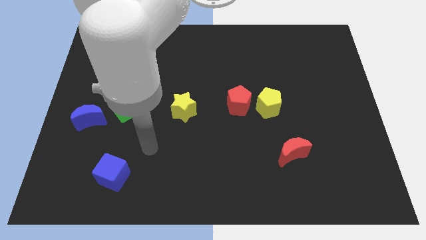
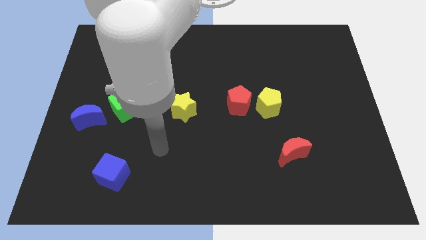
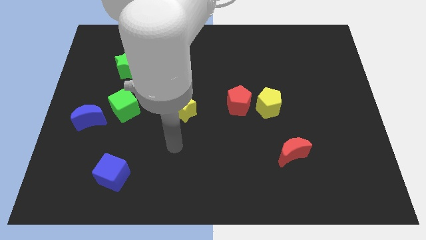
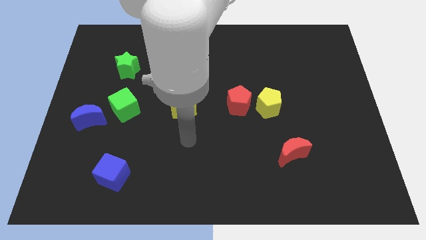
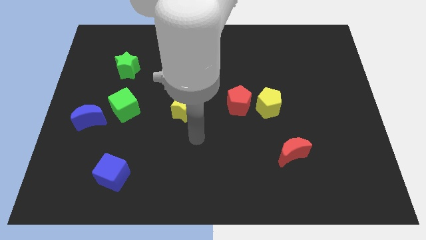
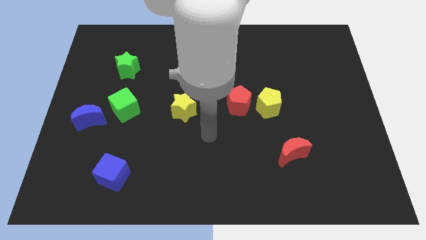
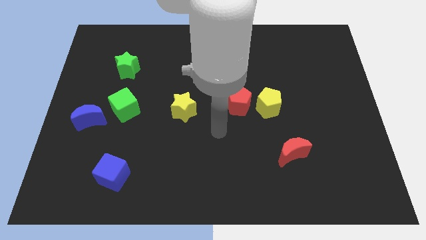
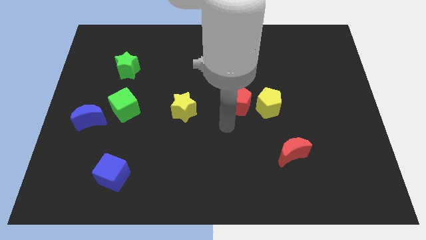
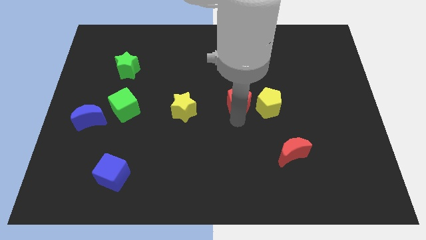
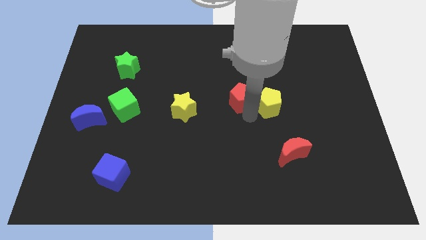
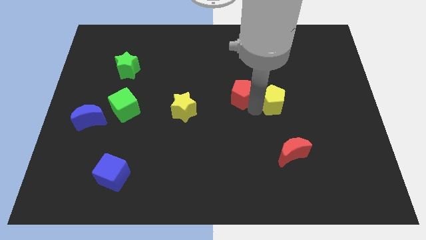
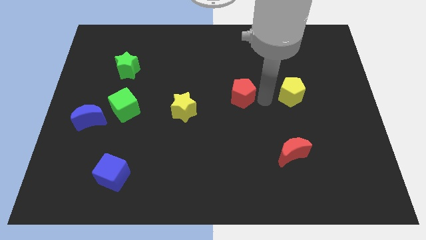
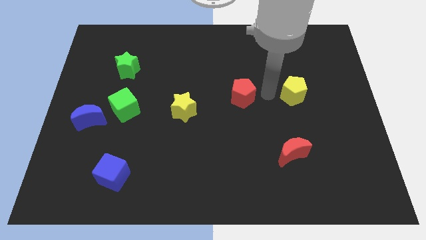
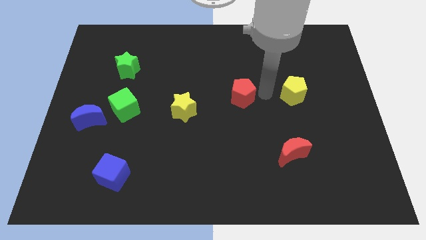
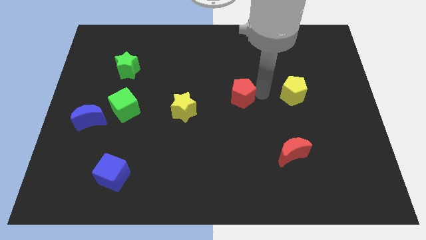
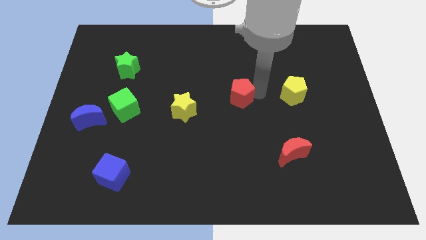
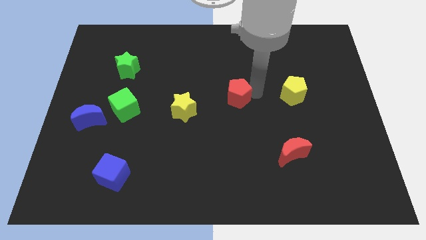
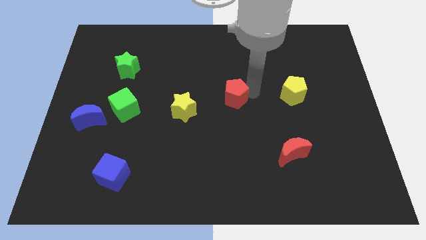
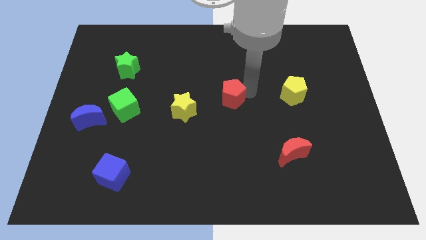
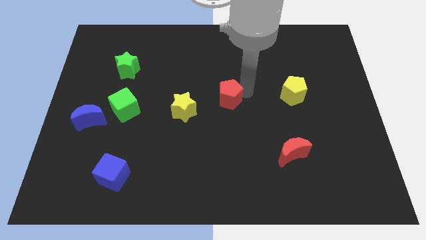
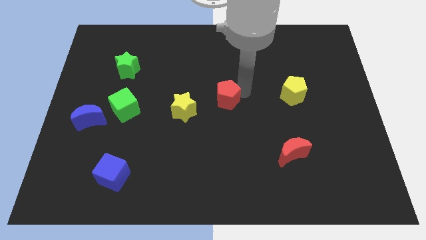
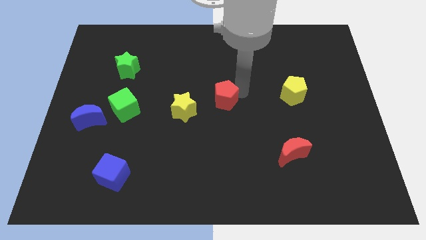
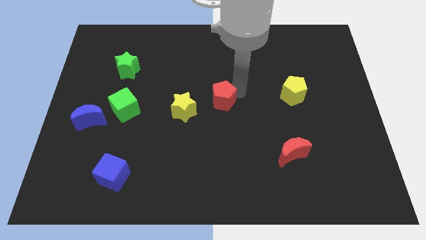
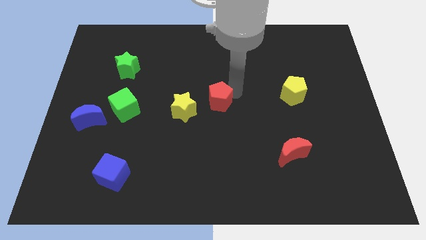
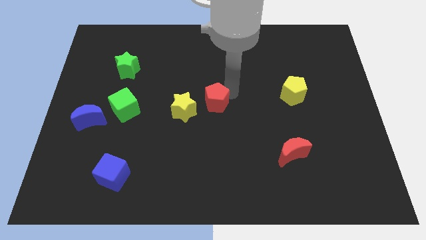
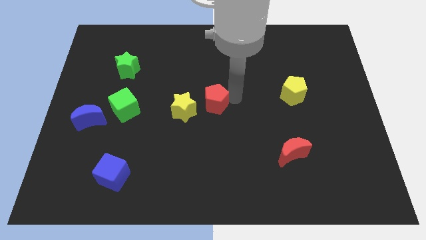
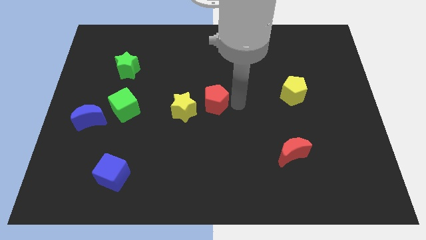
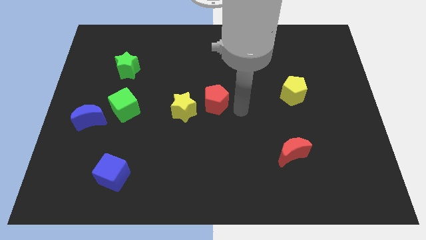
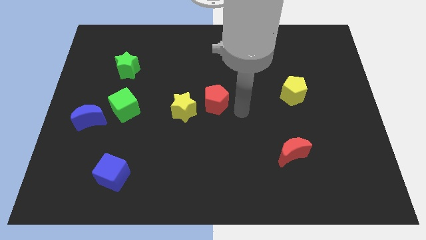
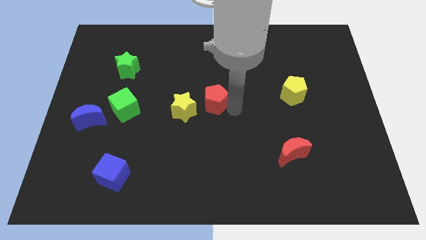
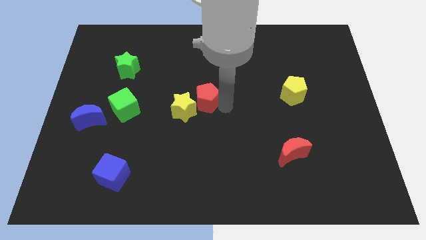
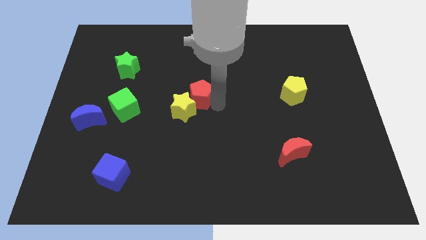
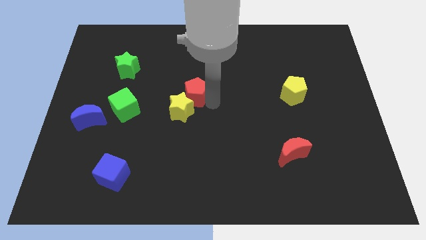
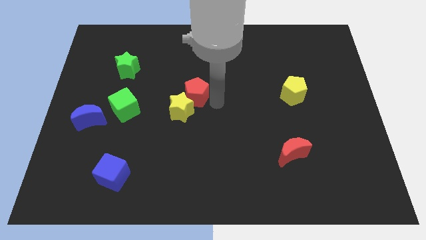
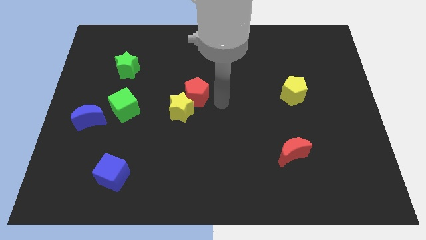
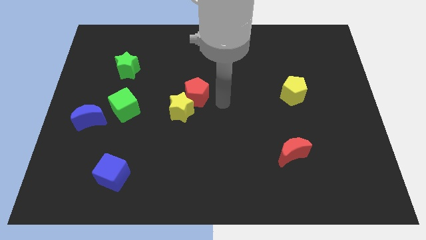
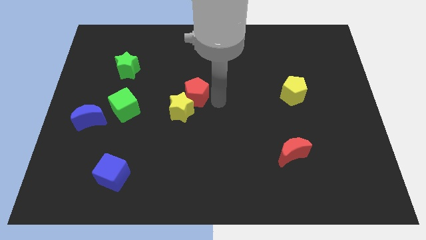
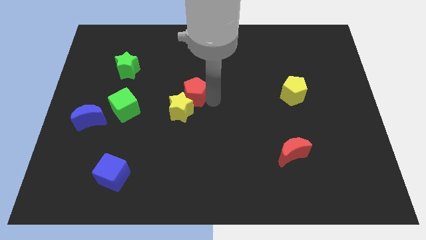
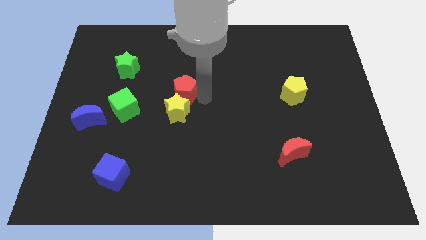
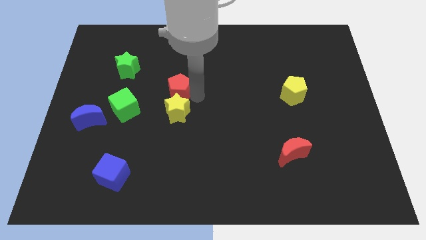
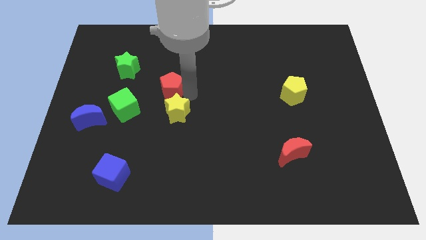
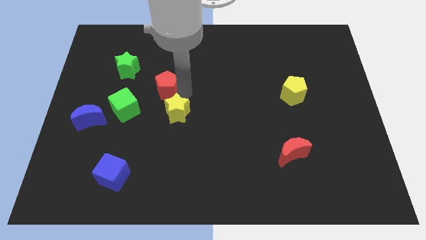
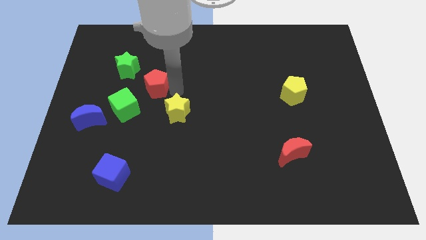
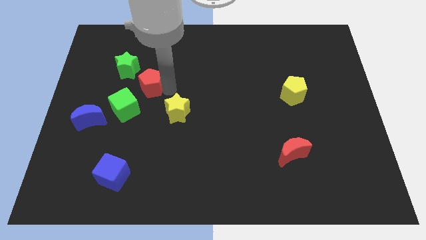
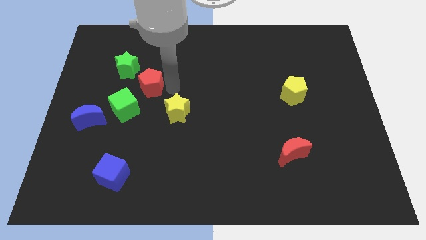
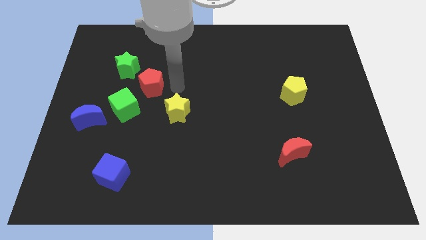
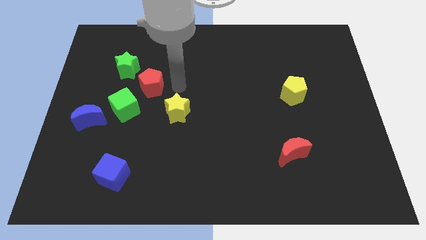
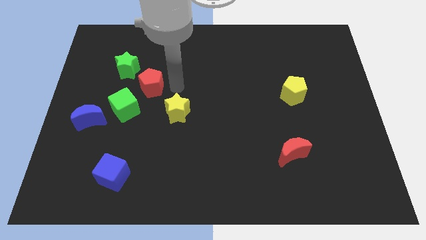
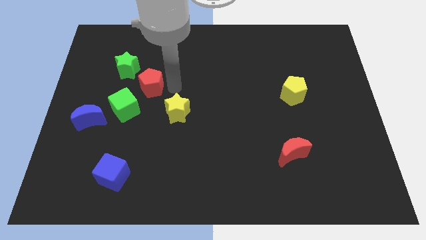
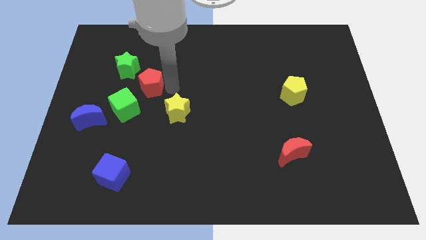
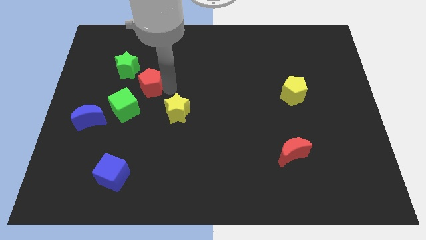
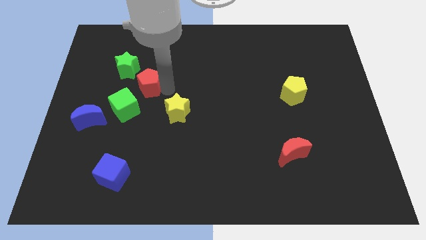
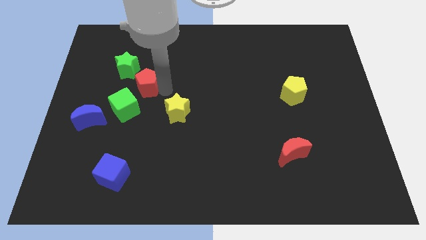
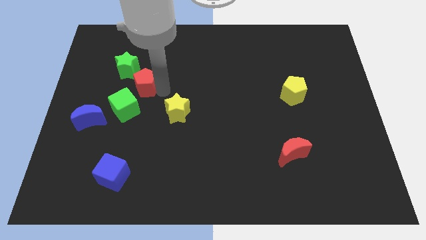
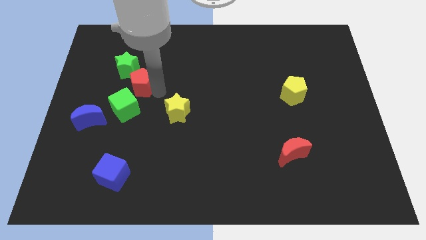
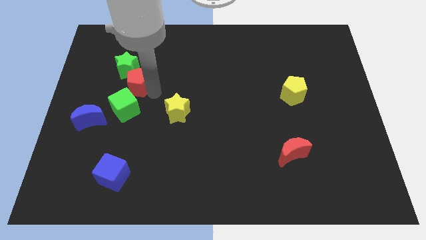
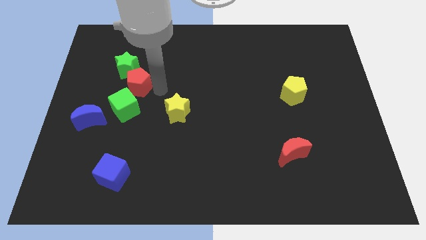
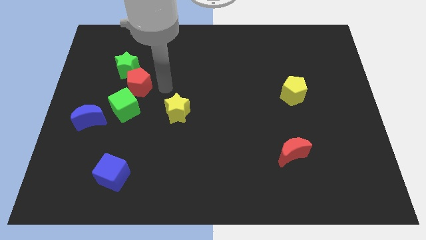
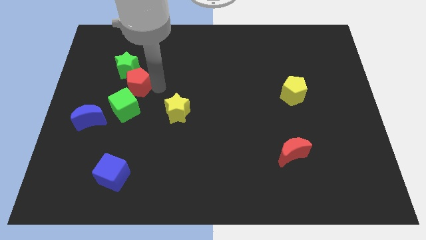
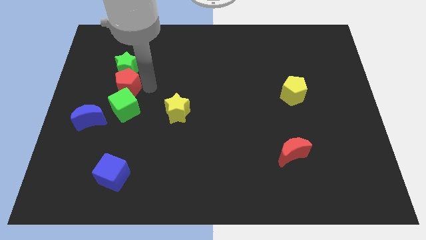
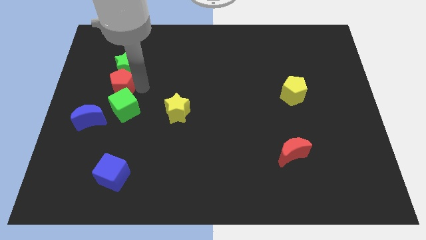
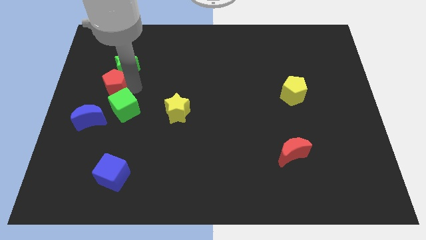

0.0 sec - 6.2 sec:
move the red pentagon to the top of the blue moon
